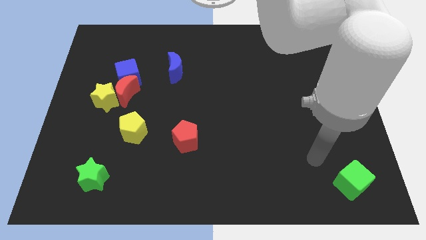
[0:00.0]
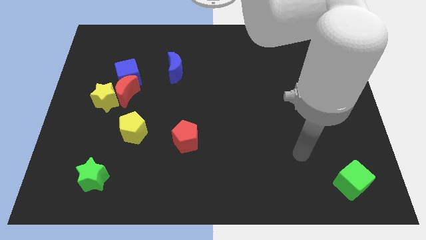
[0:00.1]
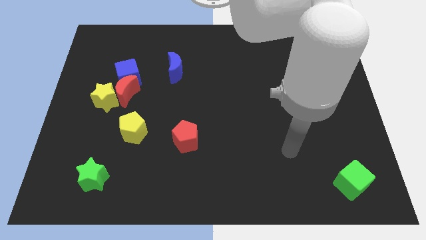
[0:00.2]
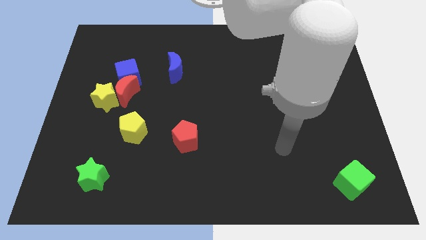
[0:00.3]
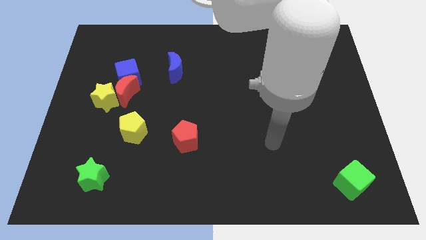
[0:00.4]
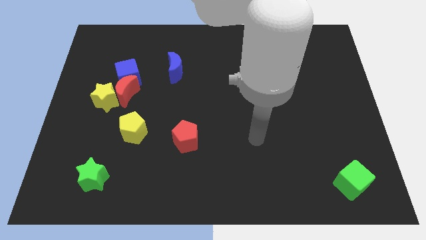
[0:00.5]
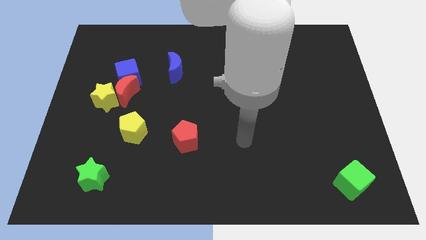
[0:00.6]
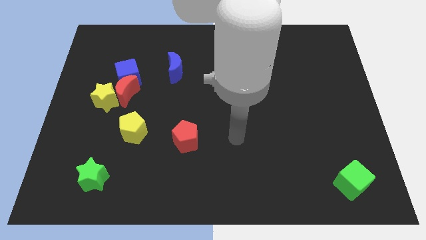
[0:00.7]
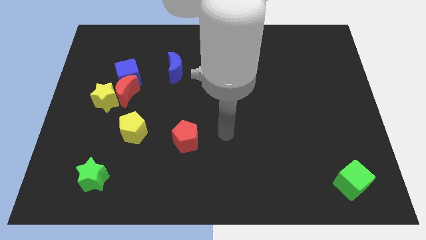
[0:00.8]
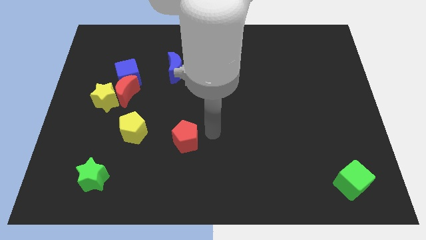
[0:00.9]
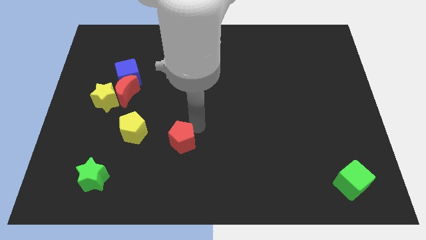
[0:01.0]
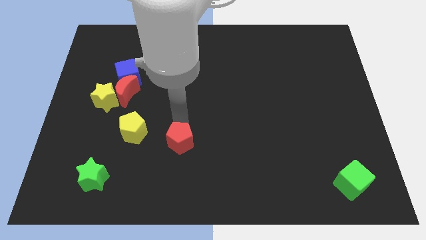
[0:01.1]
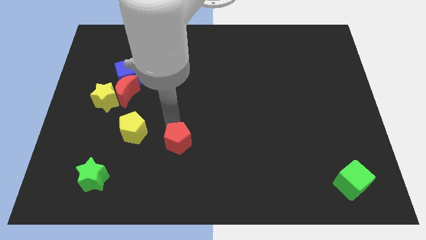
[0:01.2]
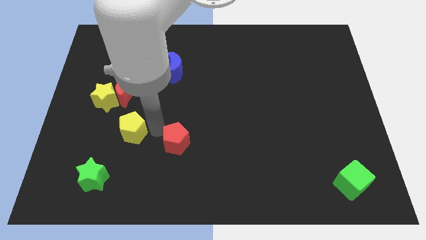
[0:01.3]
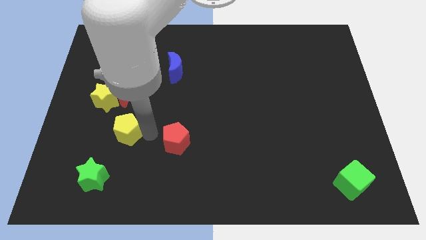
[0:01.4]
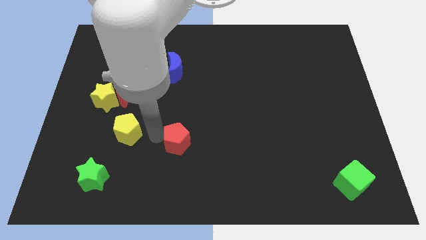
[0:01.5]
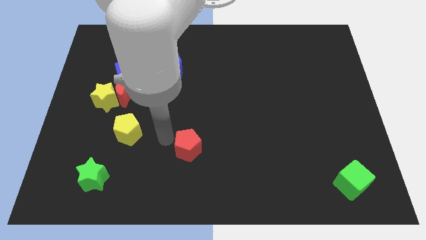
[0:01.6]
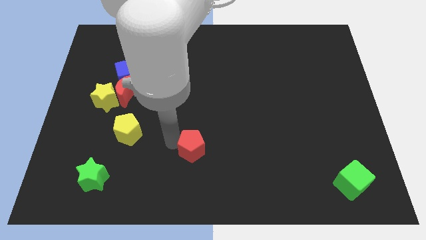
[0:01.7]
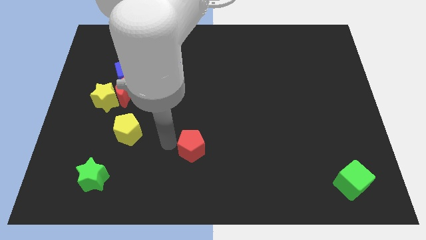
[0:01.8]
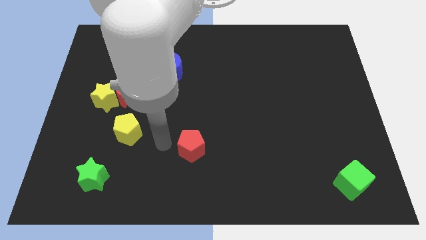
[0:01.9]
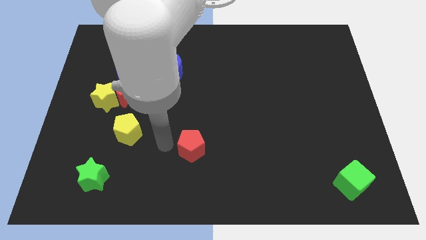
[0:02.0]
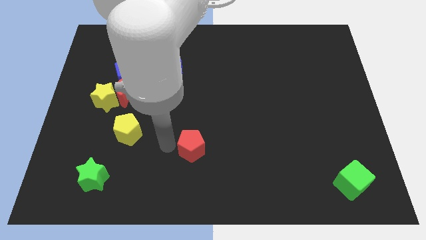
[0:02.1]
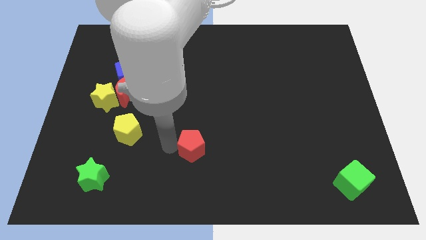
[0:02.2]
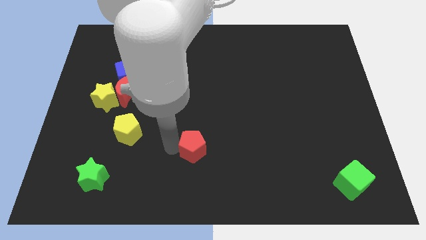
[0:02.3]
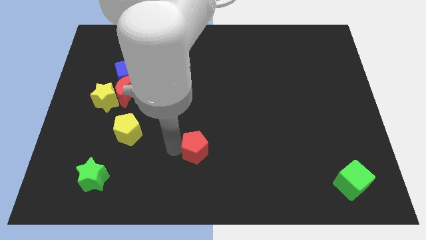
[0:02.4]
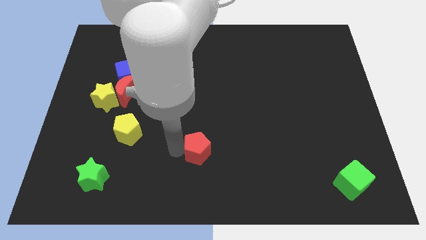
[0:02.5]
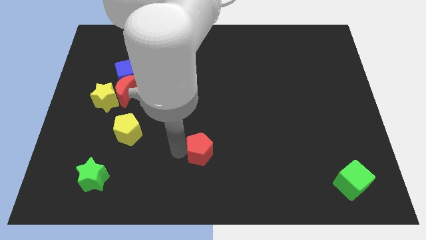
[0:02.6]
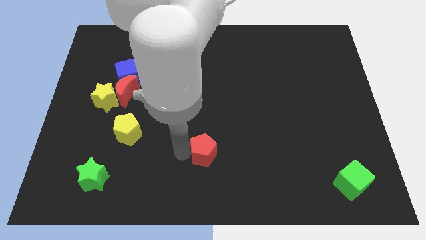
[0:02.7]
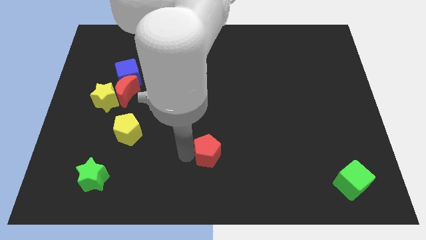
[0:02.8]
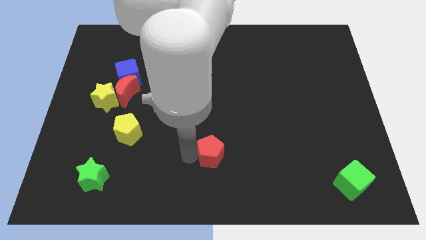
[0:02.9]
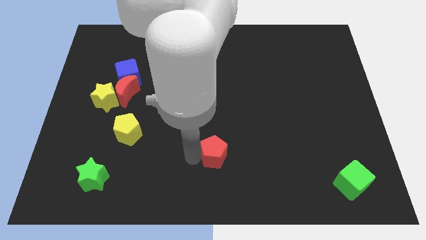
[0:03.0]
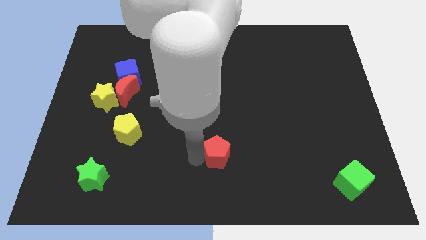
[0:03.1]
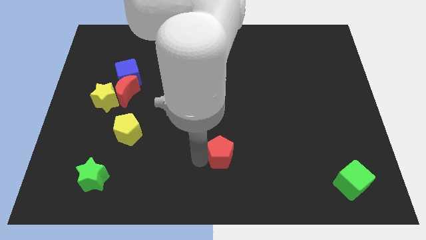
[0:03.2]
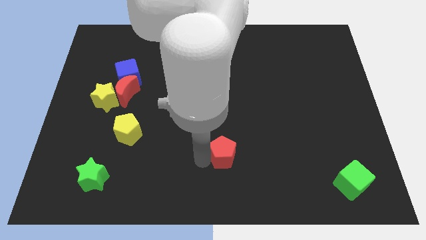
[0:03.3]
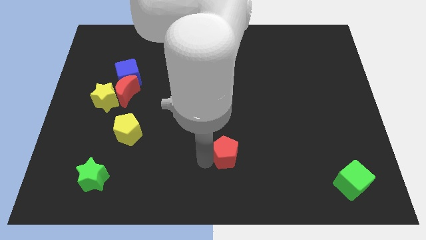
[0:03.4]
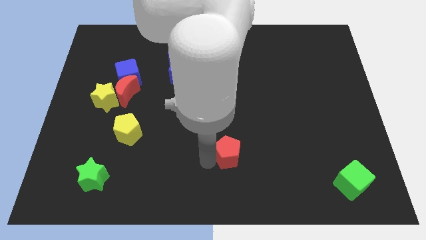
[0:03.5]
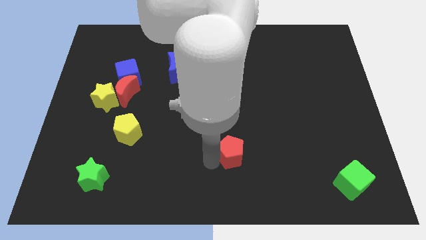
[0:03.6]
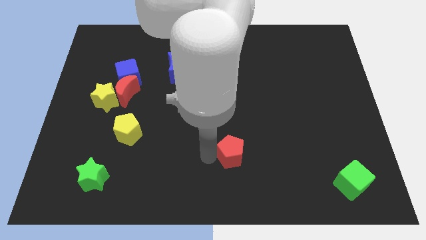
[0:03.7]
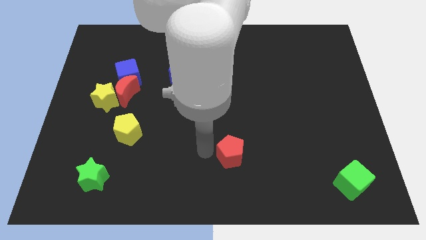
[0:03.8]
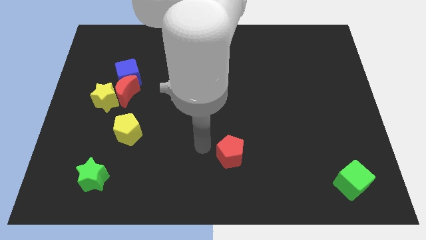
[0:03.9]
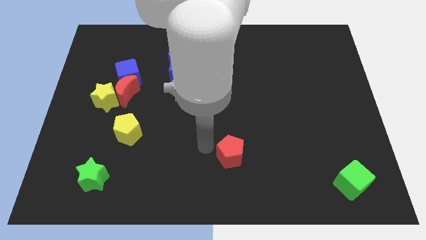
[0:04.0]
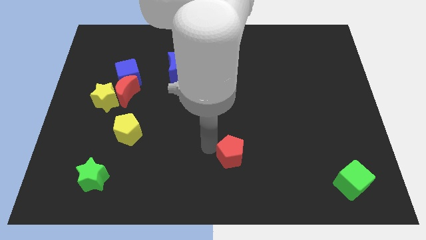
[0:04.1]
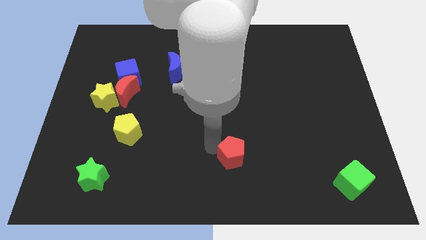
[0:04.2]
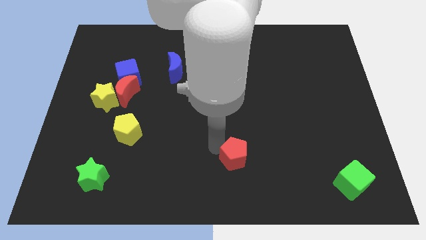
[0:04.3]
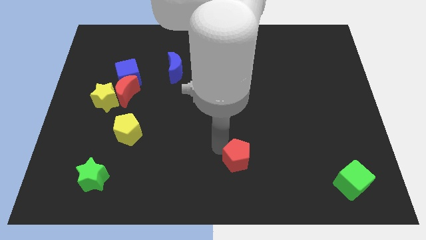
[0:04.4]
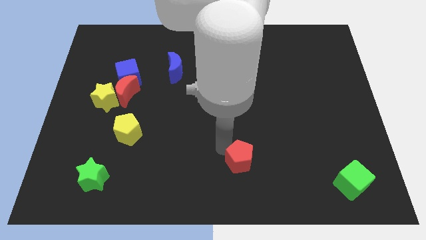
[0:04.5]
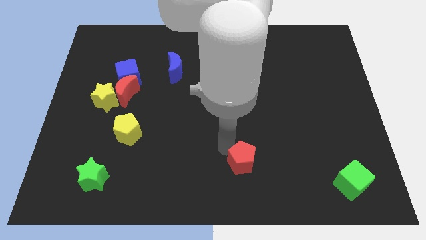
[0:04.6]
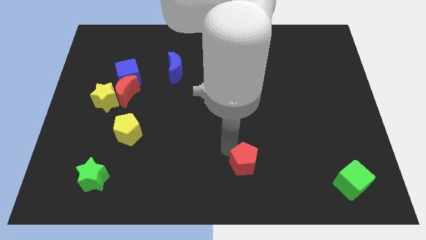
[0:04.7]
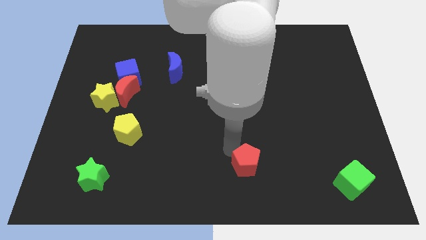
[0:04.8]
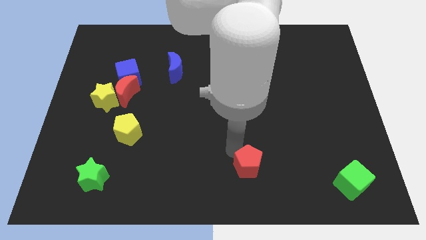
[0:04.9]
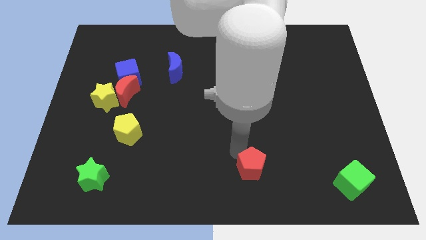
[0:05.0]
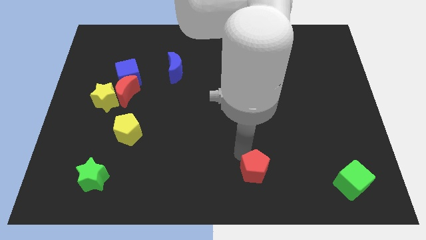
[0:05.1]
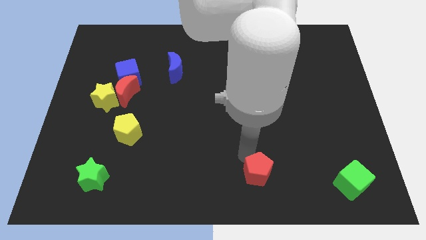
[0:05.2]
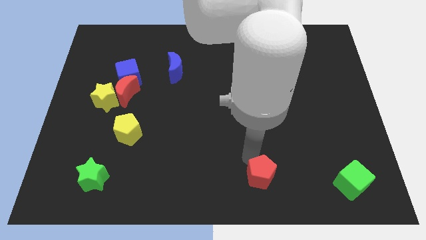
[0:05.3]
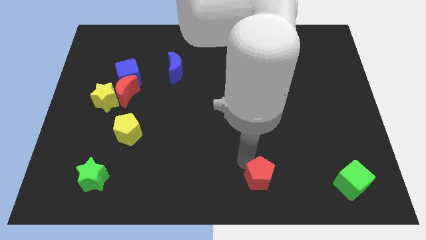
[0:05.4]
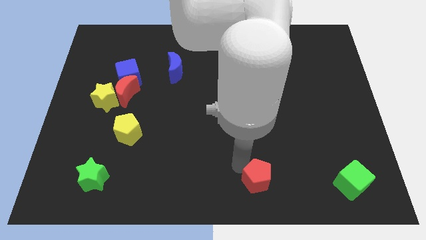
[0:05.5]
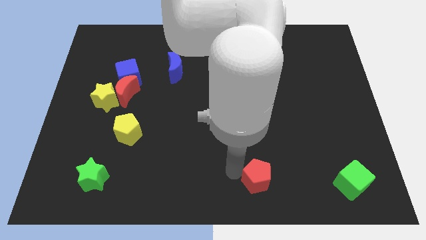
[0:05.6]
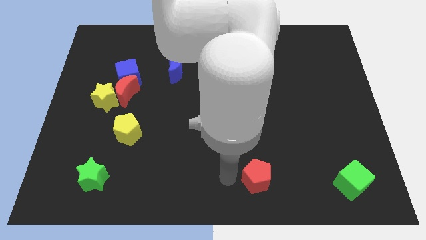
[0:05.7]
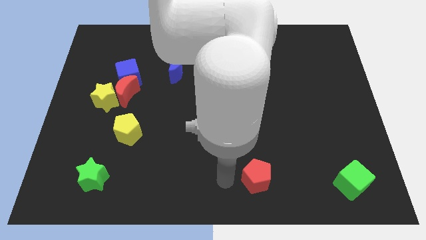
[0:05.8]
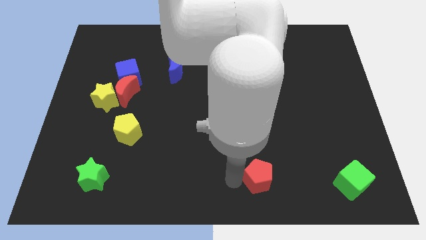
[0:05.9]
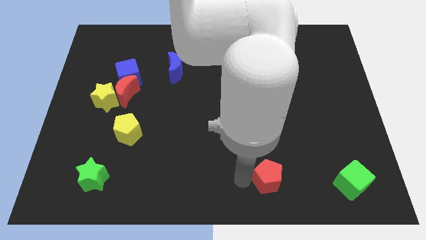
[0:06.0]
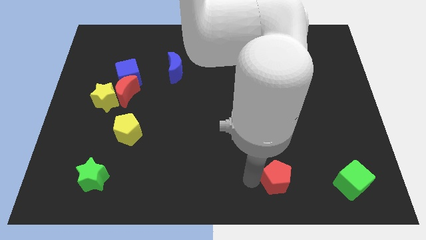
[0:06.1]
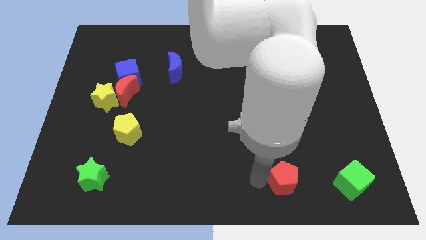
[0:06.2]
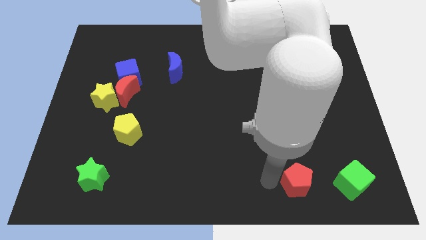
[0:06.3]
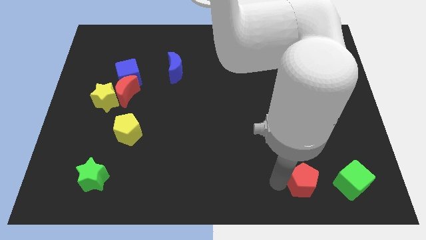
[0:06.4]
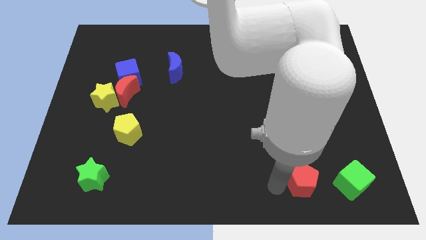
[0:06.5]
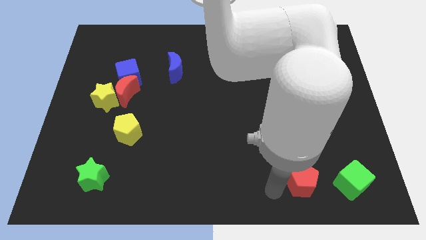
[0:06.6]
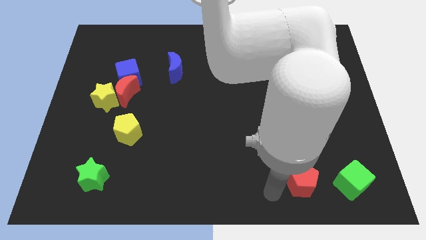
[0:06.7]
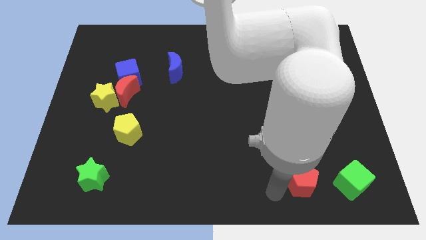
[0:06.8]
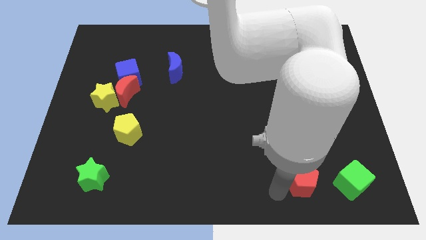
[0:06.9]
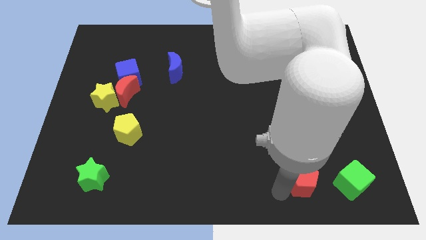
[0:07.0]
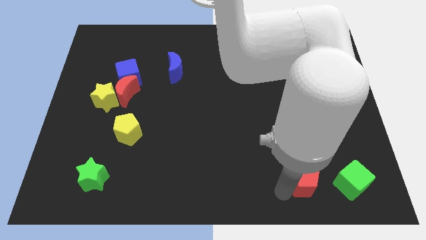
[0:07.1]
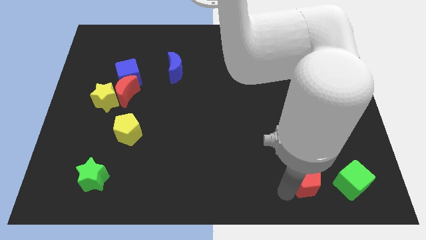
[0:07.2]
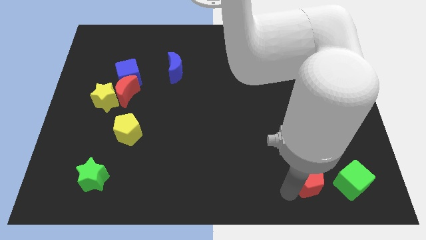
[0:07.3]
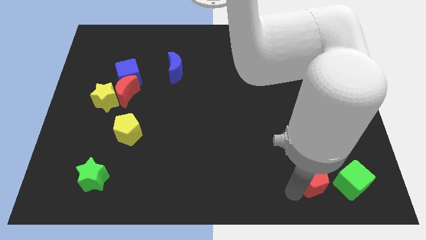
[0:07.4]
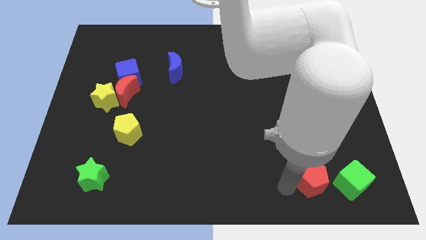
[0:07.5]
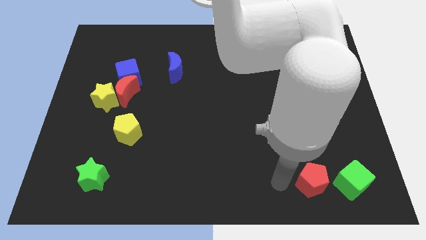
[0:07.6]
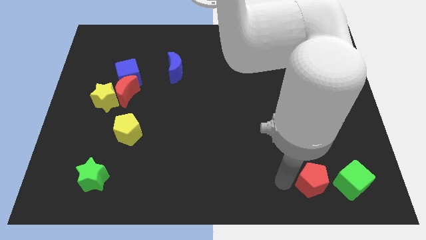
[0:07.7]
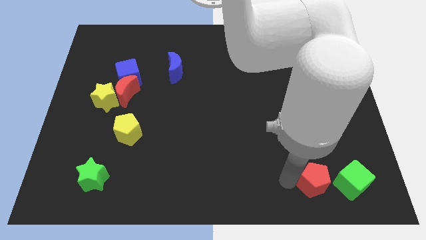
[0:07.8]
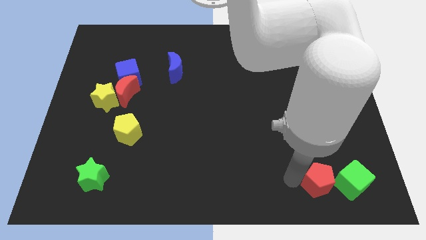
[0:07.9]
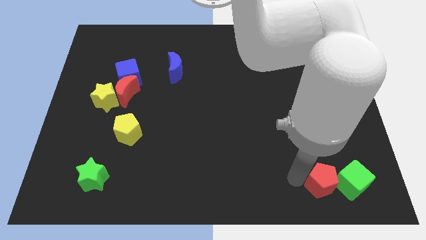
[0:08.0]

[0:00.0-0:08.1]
push the red pentagon to the green cube

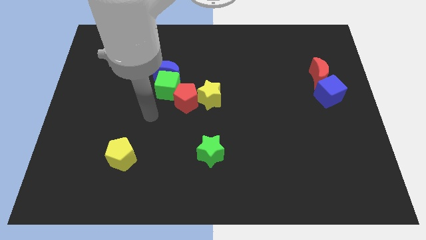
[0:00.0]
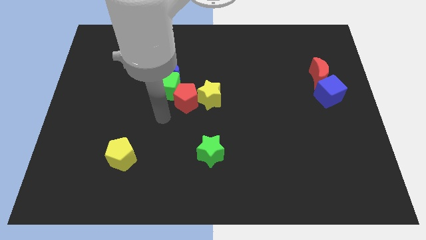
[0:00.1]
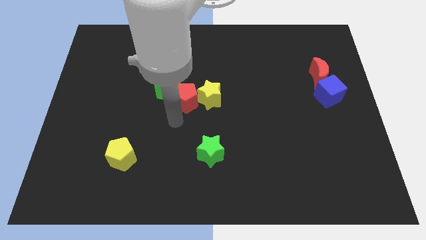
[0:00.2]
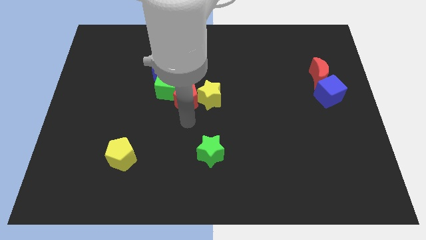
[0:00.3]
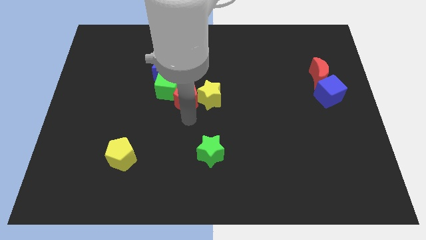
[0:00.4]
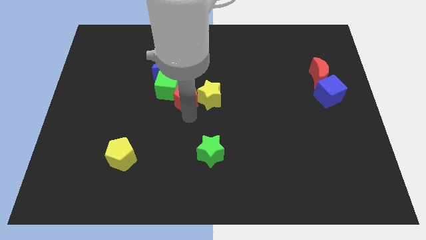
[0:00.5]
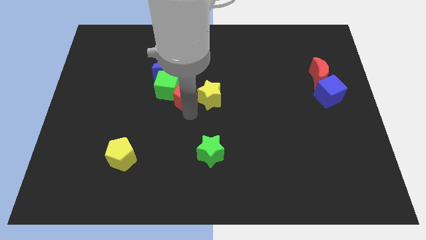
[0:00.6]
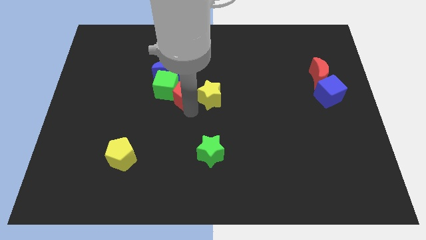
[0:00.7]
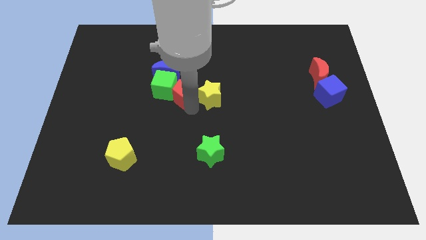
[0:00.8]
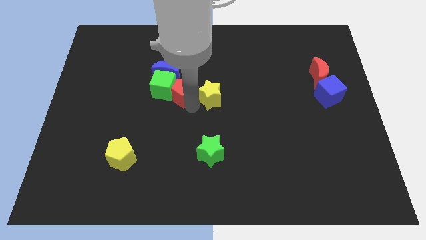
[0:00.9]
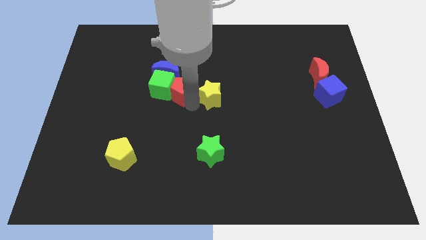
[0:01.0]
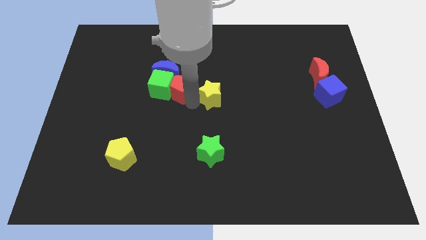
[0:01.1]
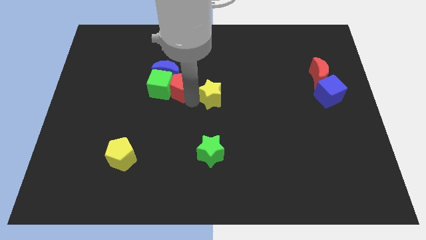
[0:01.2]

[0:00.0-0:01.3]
slide the red pentagon to the blue moon
